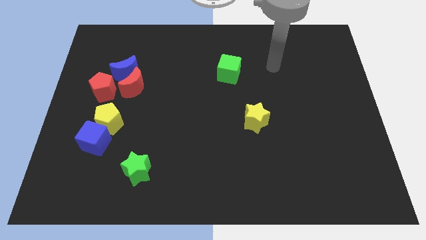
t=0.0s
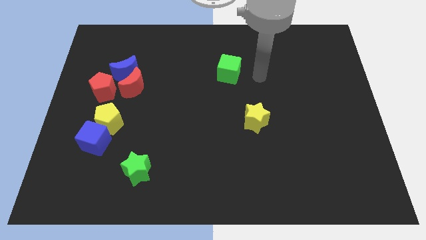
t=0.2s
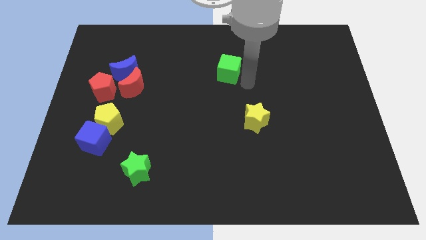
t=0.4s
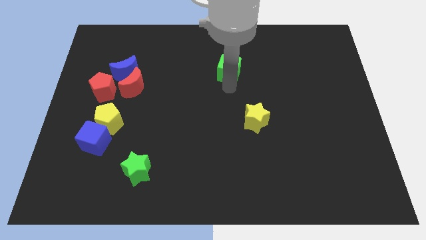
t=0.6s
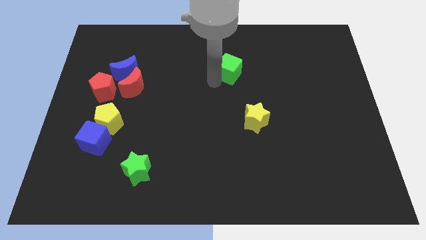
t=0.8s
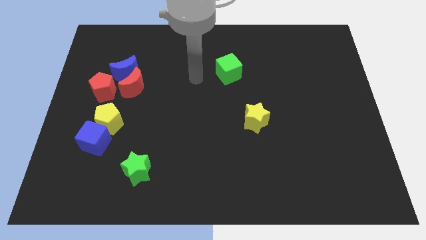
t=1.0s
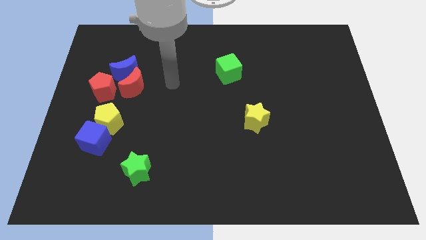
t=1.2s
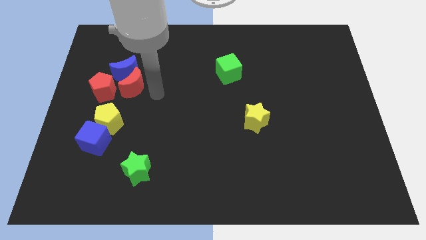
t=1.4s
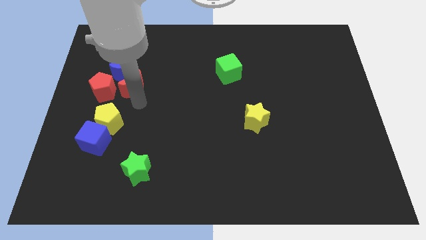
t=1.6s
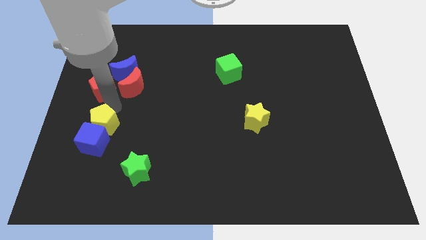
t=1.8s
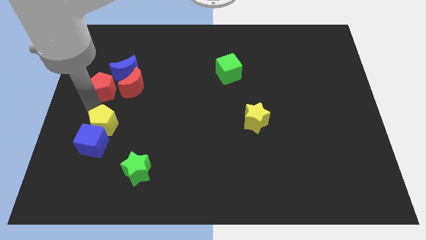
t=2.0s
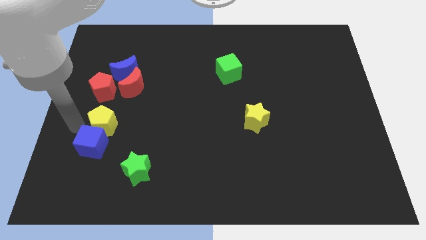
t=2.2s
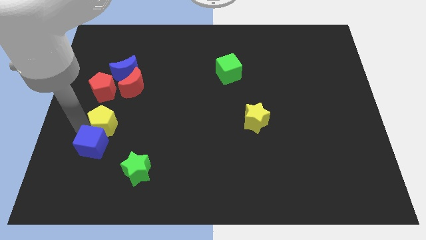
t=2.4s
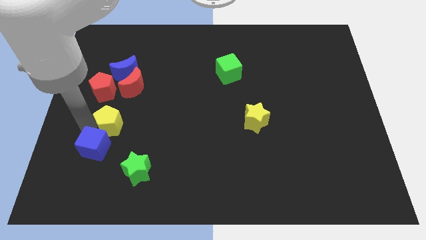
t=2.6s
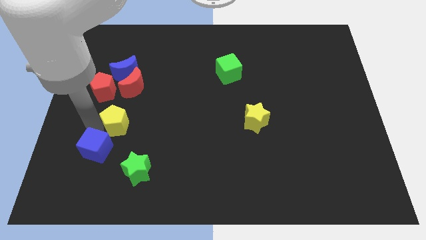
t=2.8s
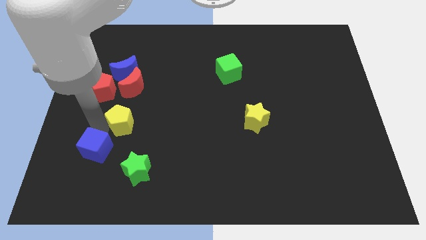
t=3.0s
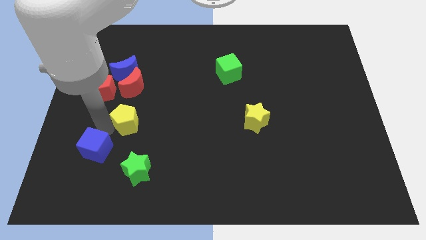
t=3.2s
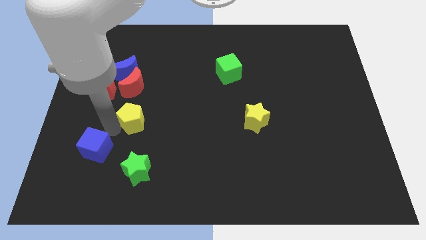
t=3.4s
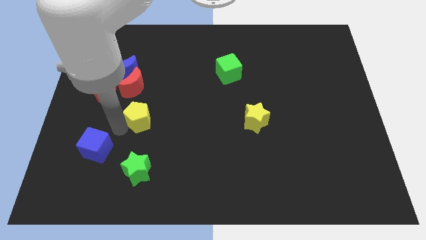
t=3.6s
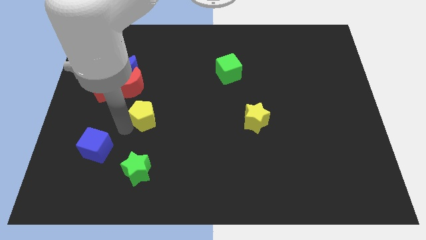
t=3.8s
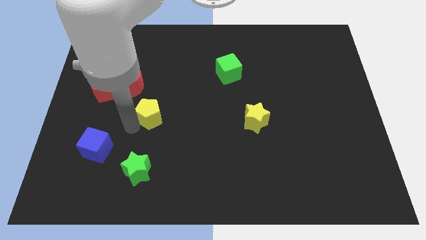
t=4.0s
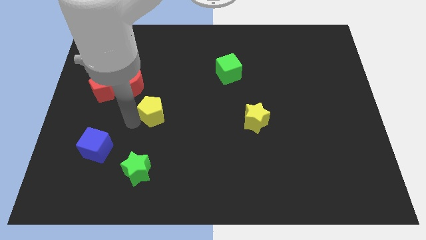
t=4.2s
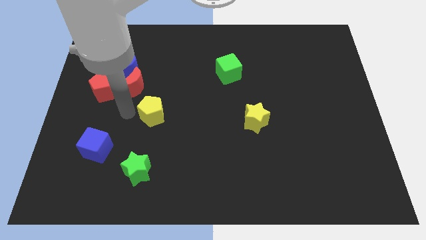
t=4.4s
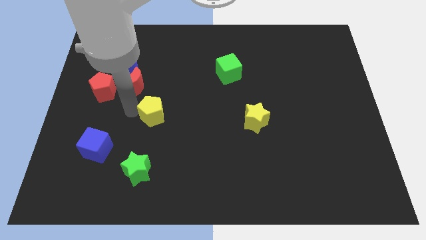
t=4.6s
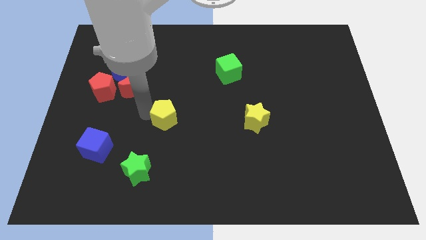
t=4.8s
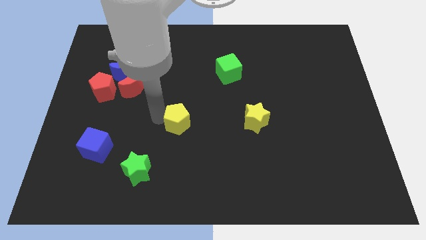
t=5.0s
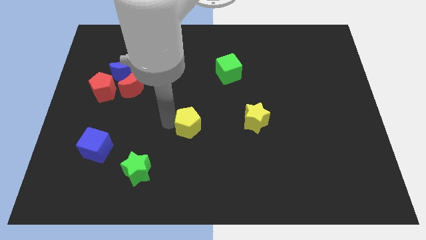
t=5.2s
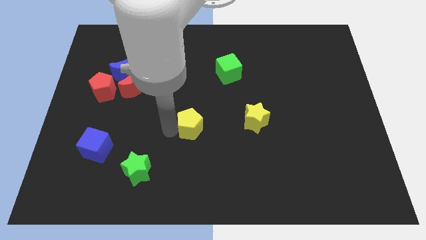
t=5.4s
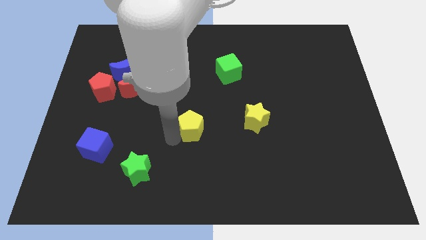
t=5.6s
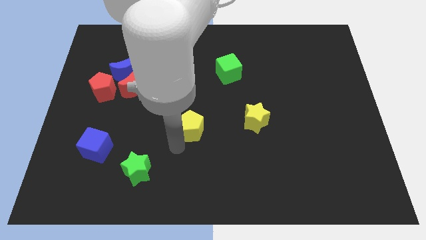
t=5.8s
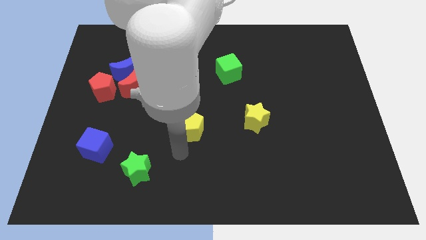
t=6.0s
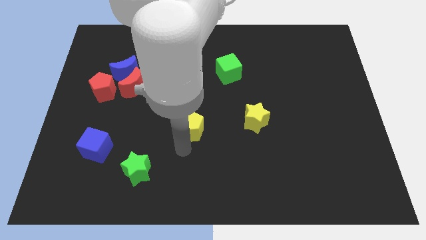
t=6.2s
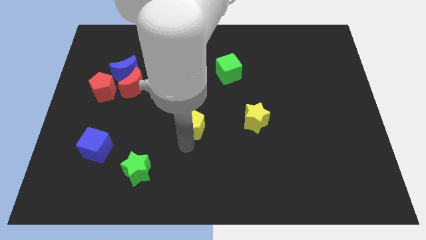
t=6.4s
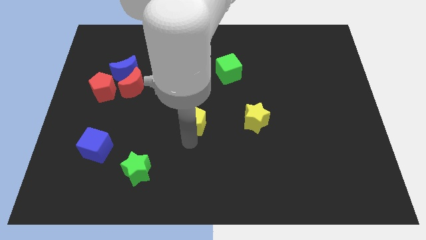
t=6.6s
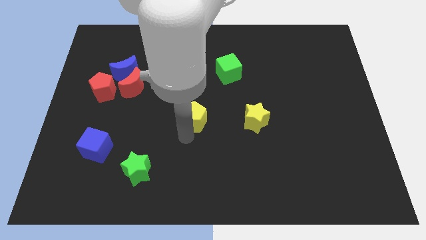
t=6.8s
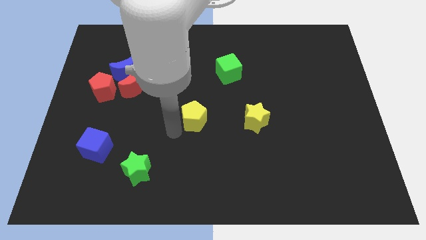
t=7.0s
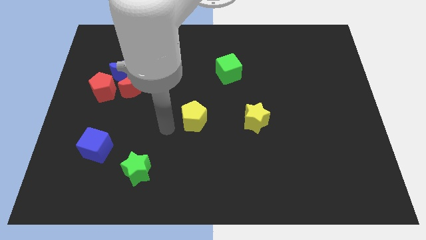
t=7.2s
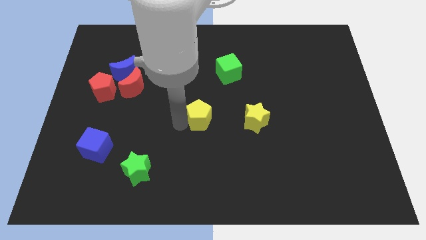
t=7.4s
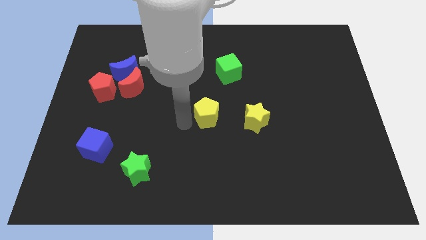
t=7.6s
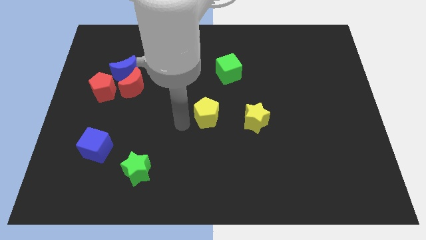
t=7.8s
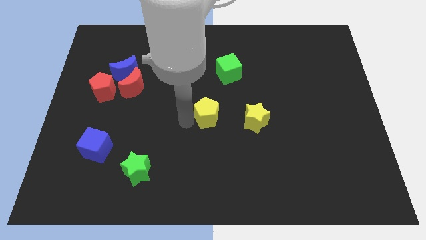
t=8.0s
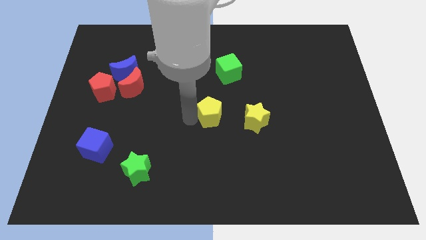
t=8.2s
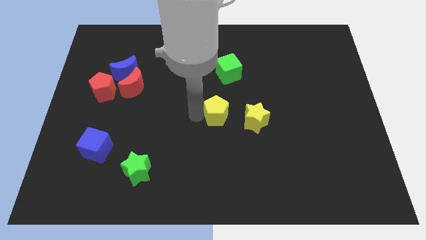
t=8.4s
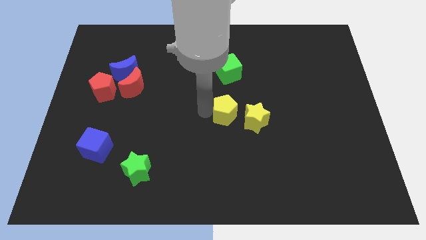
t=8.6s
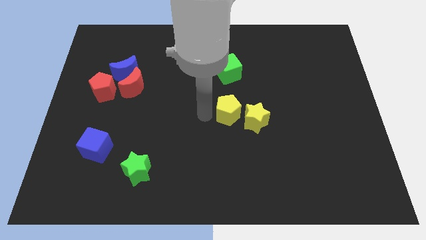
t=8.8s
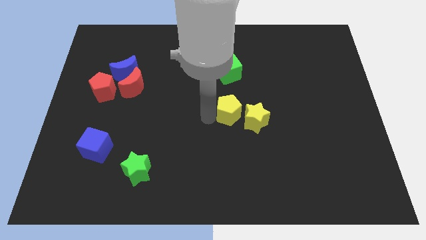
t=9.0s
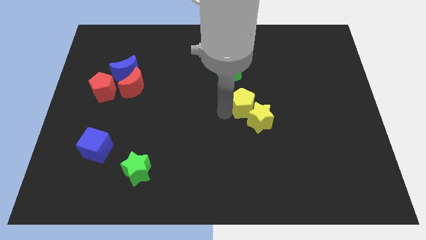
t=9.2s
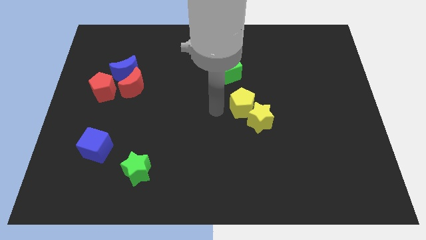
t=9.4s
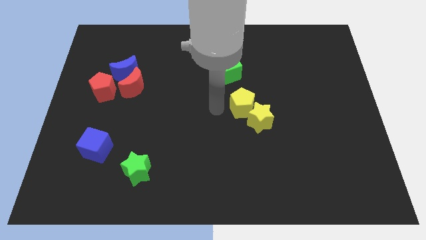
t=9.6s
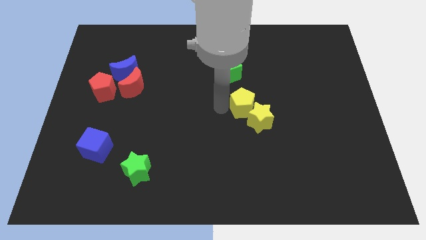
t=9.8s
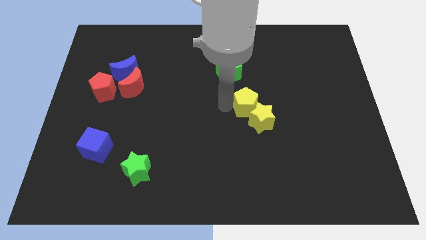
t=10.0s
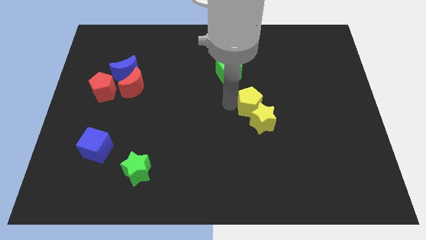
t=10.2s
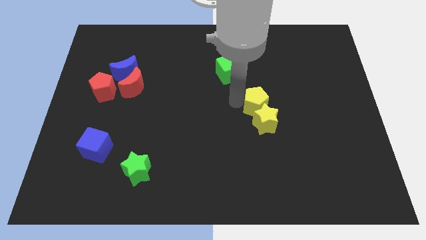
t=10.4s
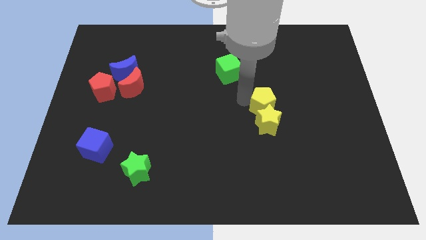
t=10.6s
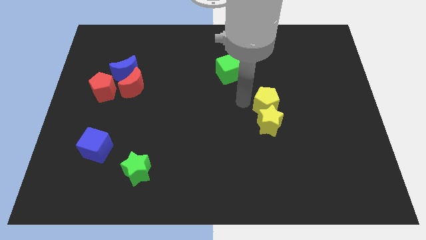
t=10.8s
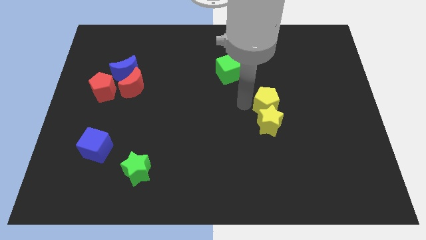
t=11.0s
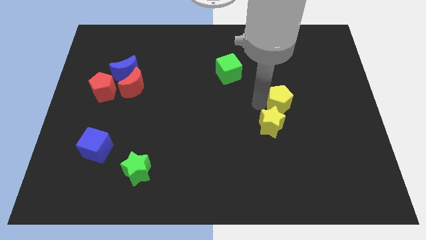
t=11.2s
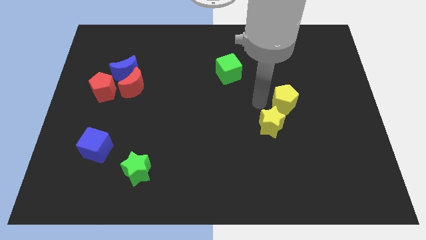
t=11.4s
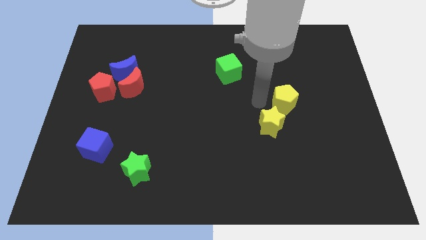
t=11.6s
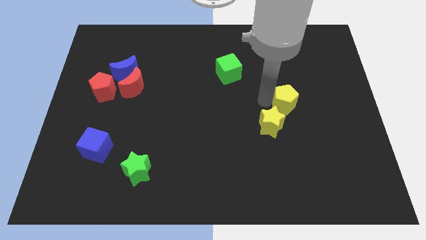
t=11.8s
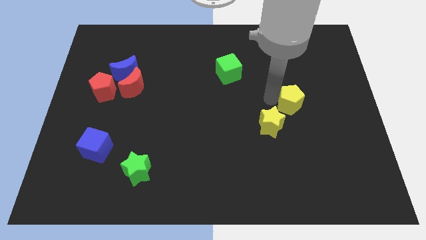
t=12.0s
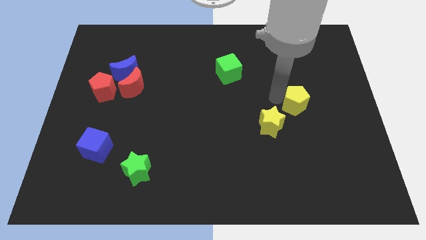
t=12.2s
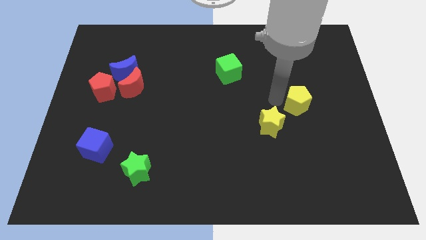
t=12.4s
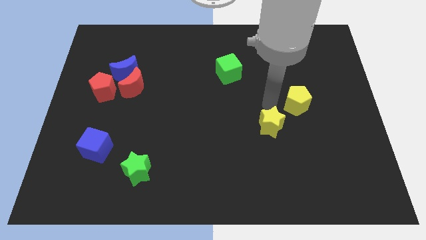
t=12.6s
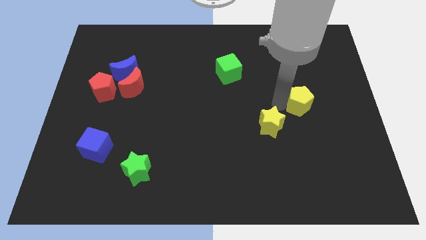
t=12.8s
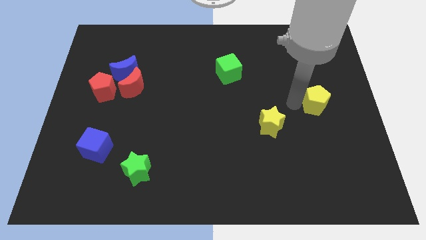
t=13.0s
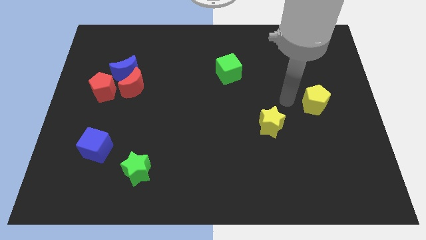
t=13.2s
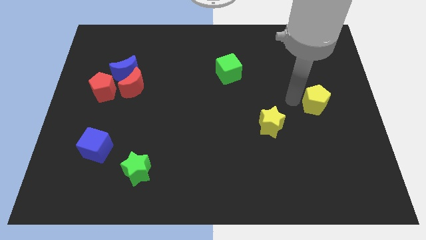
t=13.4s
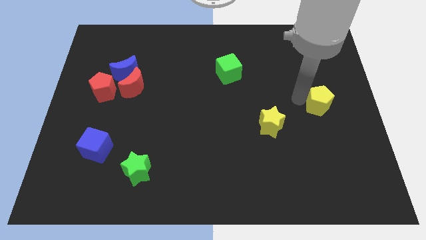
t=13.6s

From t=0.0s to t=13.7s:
put the yellow pentagon to the right side of the board
